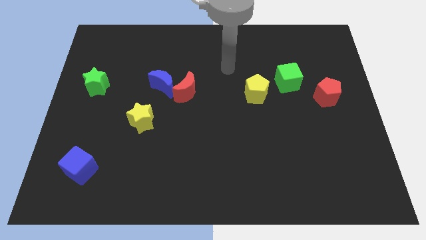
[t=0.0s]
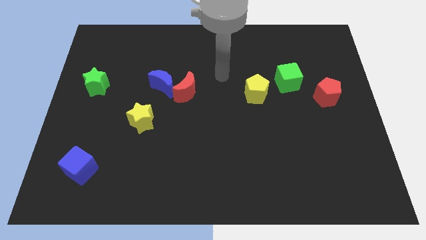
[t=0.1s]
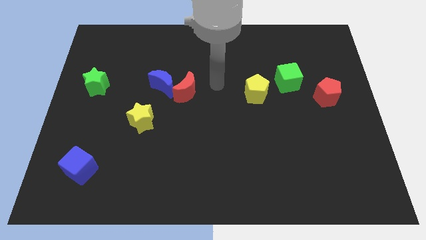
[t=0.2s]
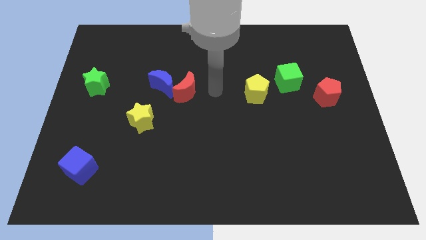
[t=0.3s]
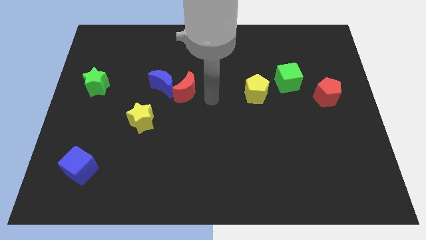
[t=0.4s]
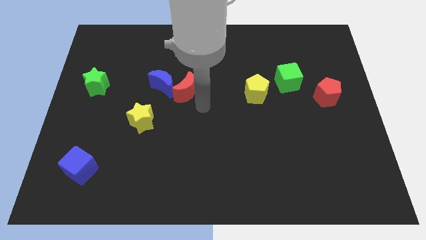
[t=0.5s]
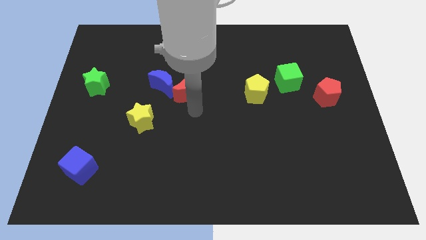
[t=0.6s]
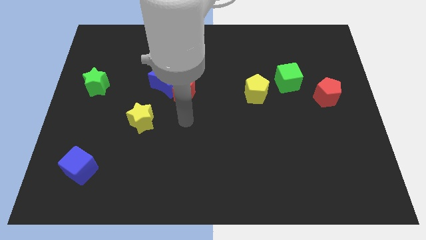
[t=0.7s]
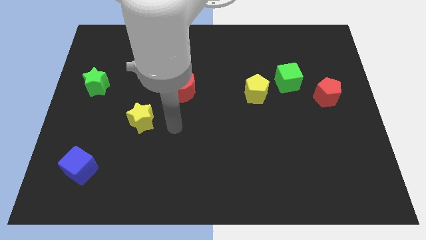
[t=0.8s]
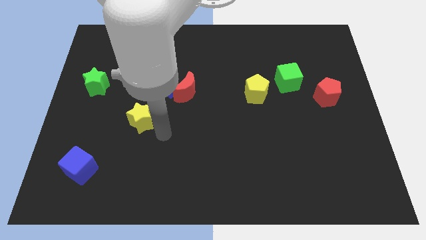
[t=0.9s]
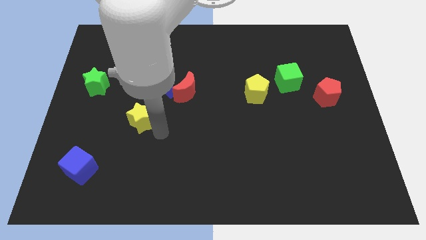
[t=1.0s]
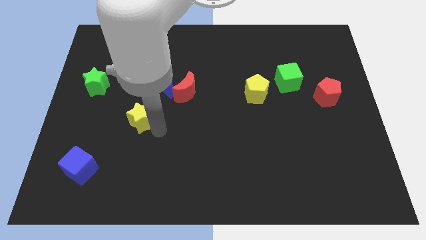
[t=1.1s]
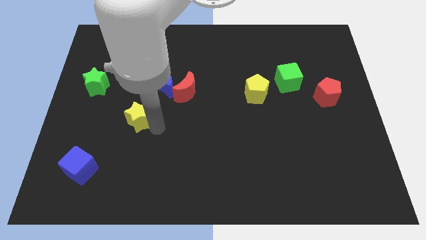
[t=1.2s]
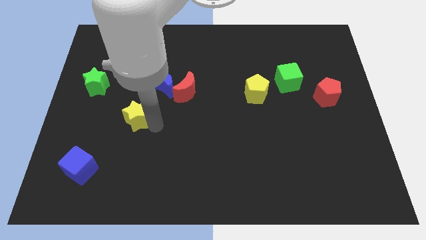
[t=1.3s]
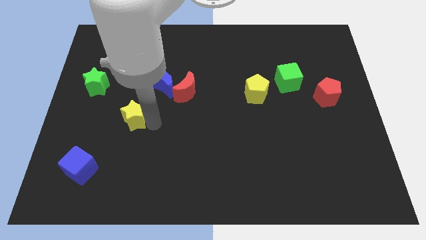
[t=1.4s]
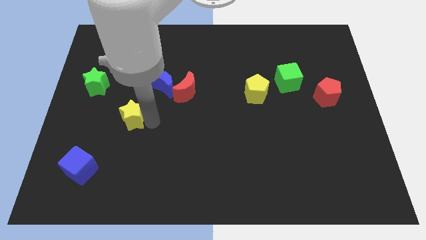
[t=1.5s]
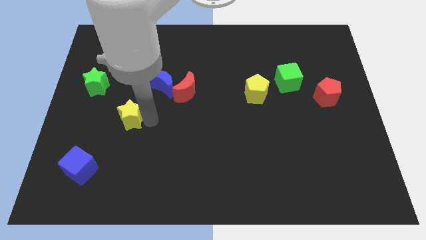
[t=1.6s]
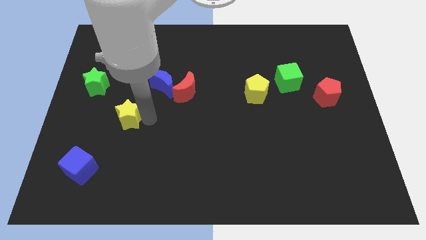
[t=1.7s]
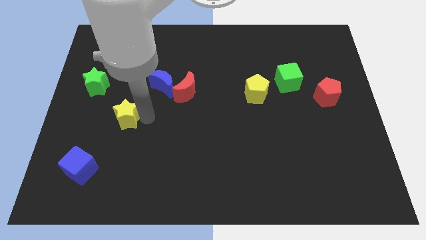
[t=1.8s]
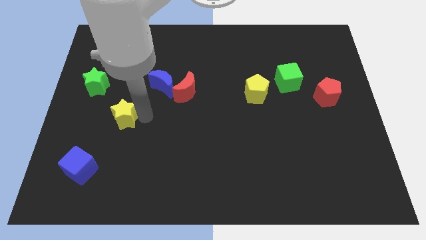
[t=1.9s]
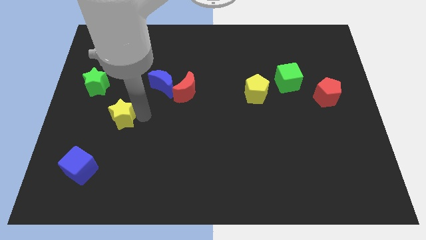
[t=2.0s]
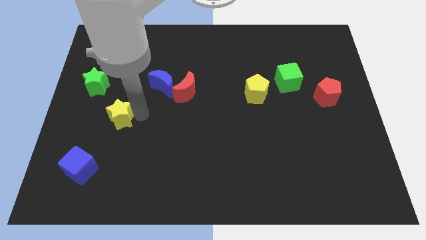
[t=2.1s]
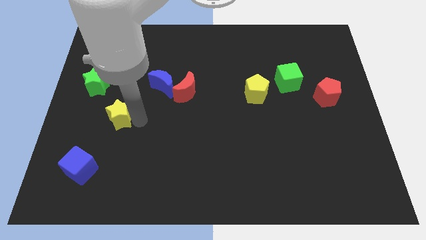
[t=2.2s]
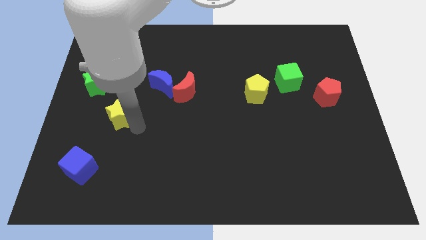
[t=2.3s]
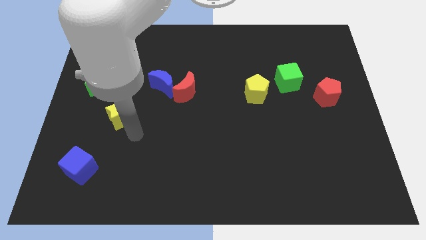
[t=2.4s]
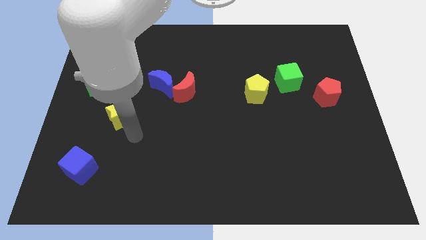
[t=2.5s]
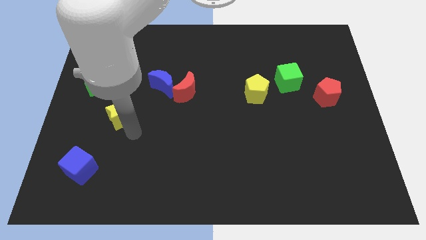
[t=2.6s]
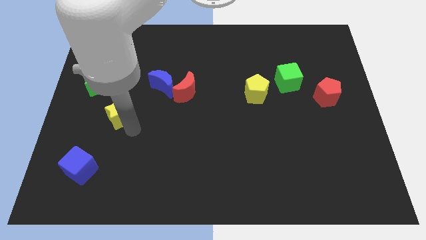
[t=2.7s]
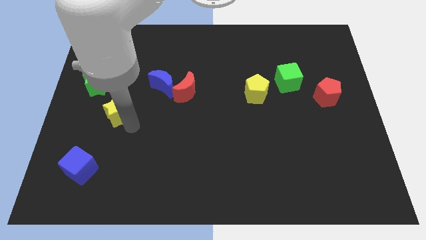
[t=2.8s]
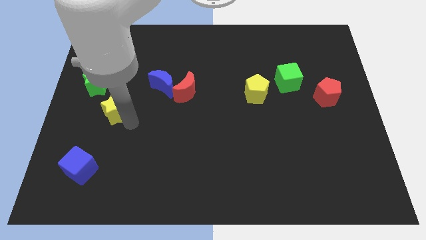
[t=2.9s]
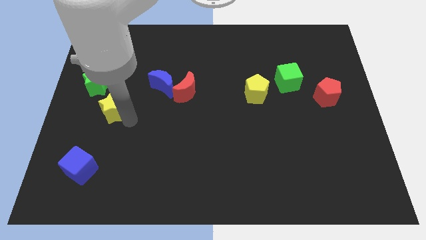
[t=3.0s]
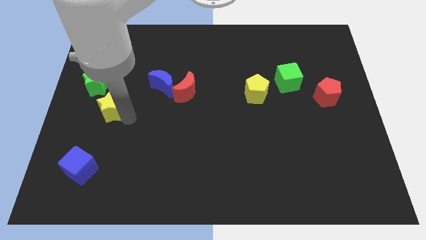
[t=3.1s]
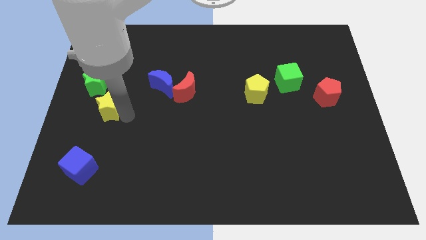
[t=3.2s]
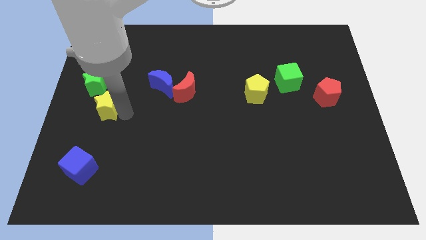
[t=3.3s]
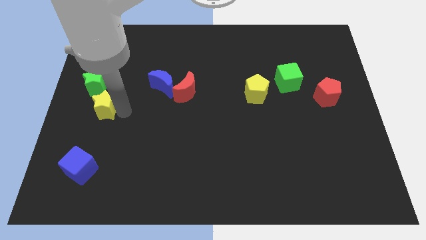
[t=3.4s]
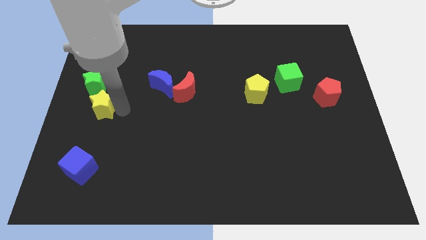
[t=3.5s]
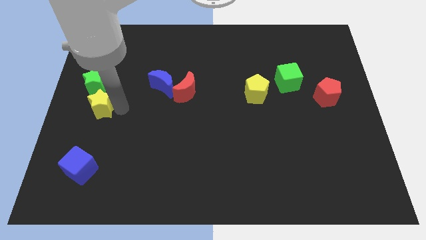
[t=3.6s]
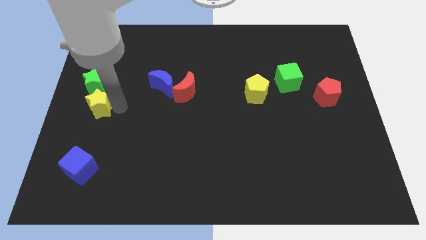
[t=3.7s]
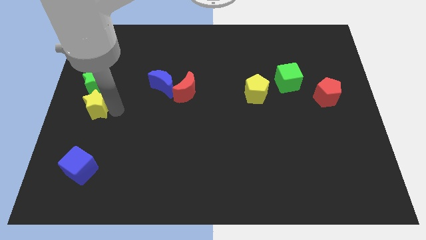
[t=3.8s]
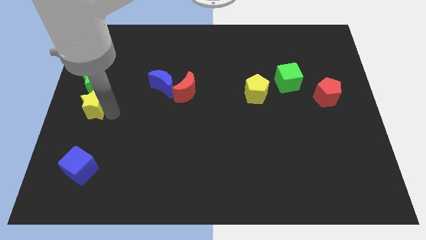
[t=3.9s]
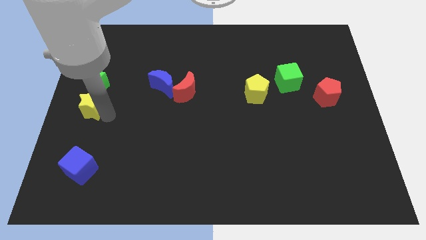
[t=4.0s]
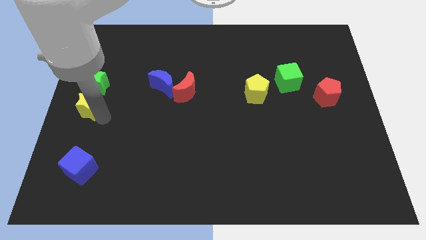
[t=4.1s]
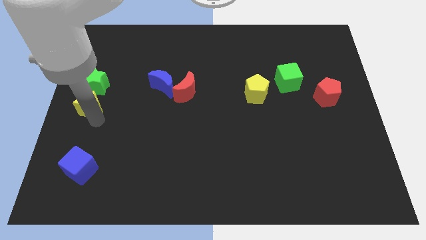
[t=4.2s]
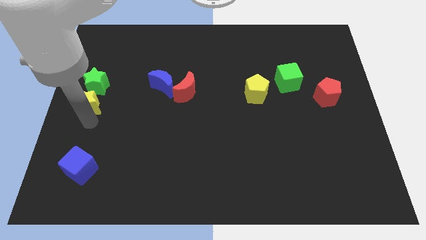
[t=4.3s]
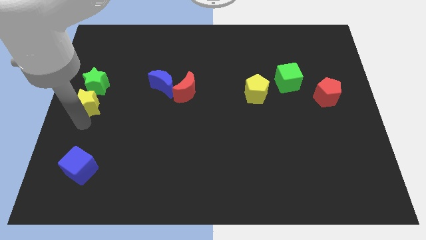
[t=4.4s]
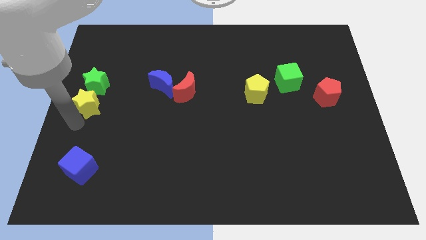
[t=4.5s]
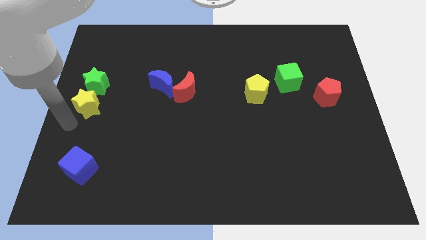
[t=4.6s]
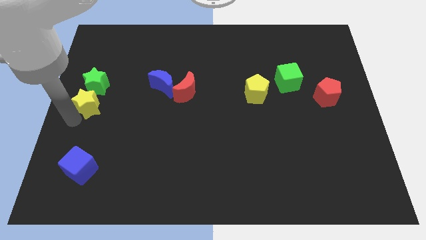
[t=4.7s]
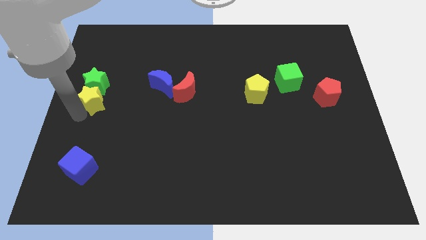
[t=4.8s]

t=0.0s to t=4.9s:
move the yellow star towards the green star

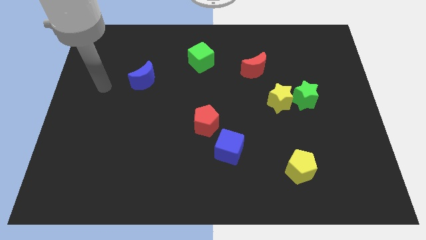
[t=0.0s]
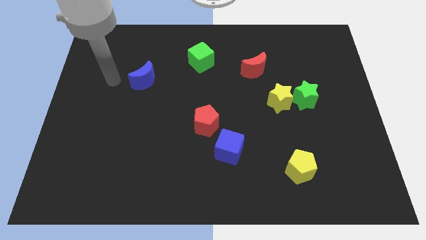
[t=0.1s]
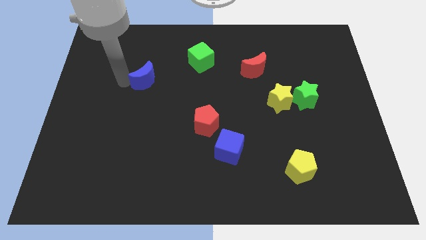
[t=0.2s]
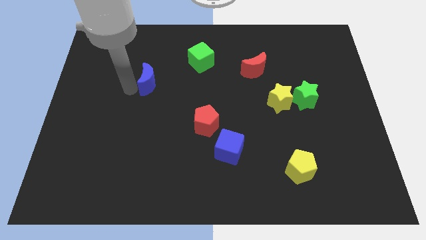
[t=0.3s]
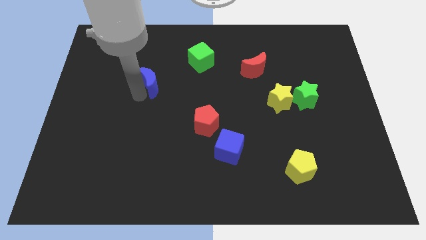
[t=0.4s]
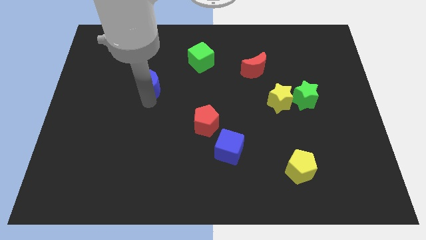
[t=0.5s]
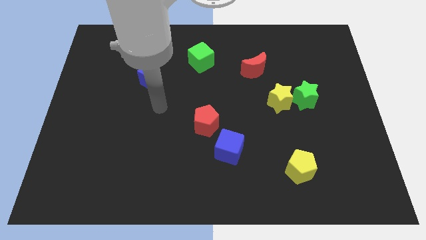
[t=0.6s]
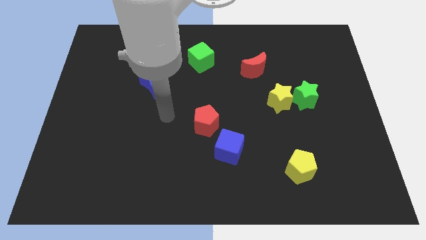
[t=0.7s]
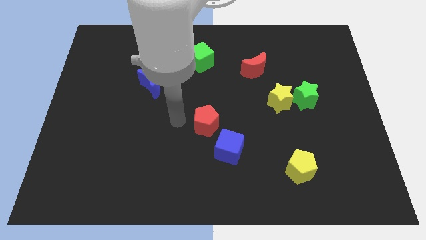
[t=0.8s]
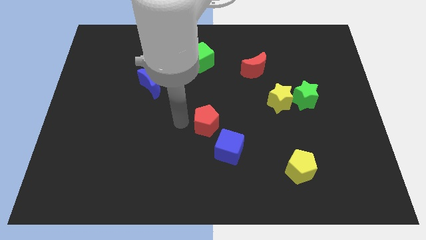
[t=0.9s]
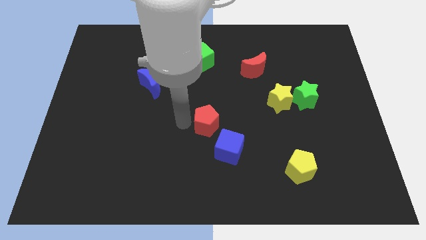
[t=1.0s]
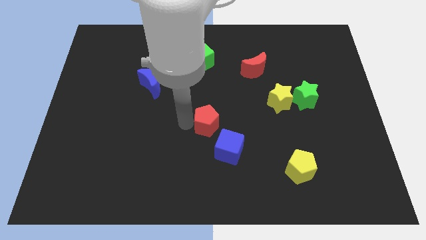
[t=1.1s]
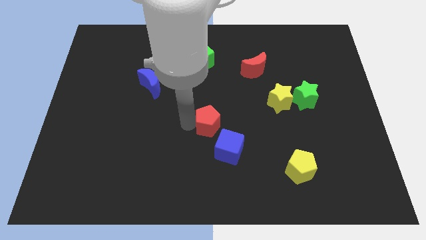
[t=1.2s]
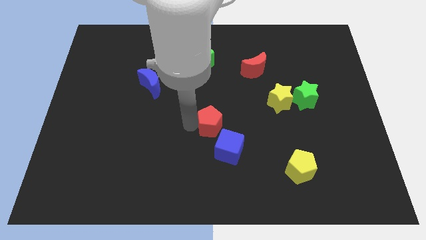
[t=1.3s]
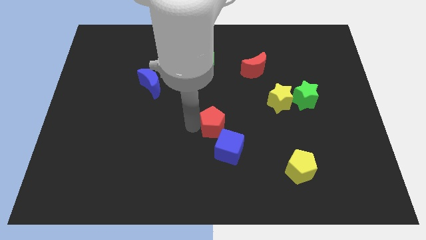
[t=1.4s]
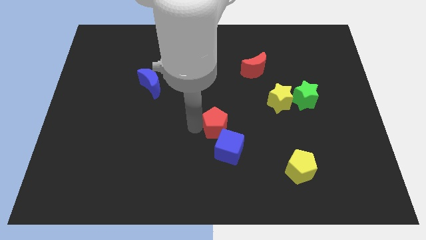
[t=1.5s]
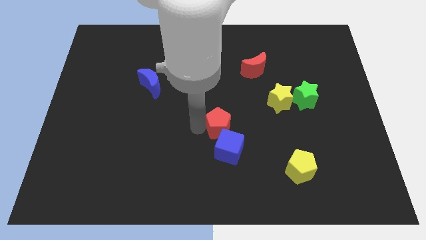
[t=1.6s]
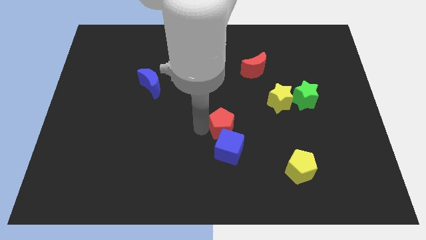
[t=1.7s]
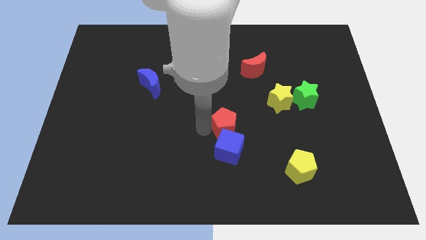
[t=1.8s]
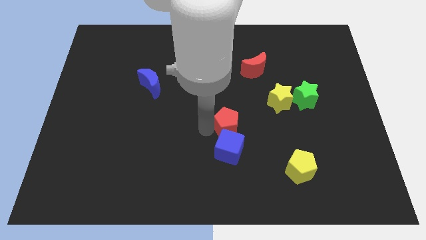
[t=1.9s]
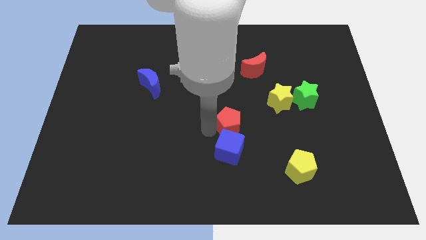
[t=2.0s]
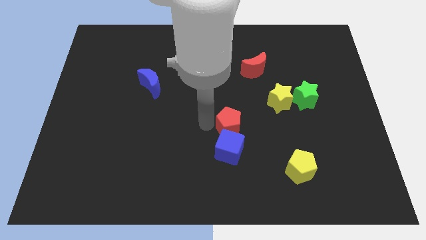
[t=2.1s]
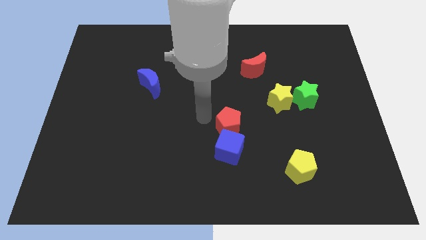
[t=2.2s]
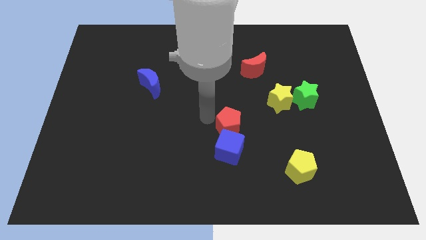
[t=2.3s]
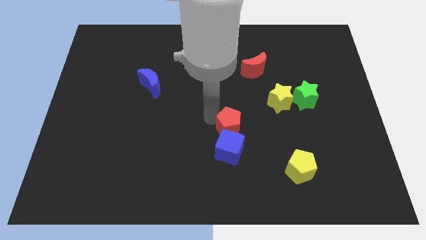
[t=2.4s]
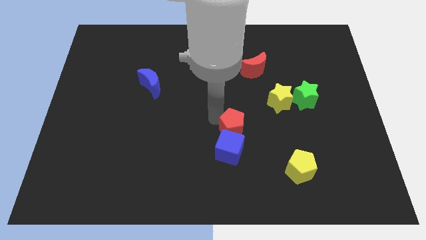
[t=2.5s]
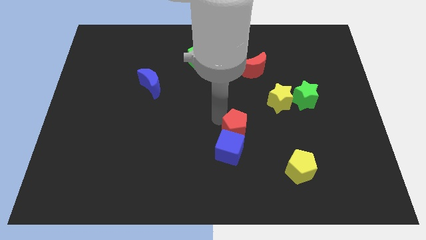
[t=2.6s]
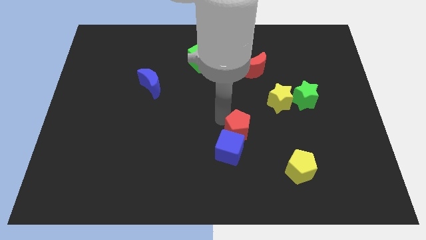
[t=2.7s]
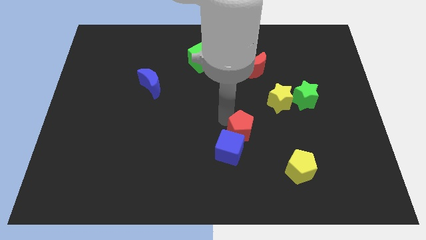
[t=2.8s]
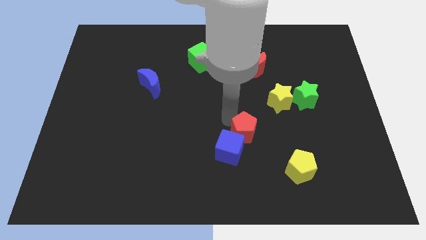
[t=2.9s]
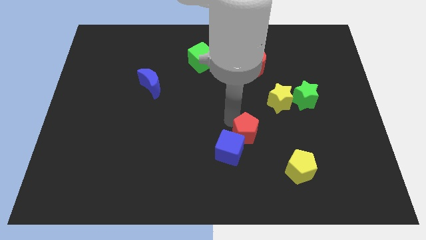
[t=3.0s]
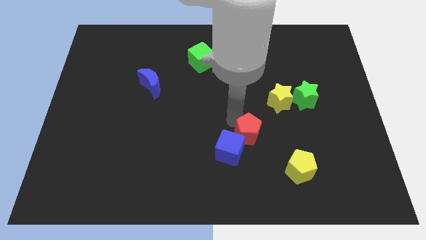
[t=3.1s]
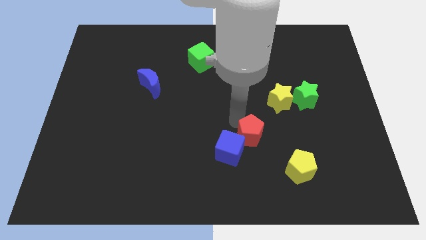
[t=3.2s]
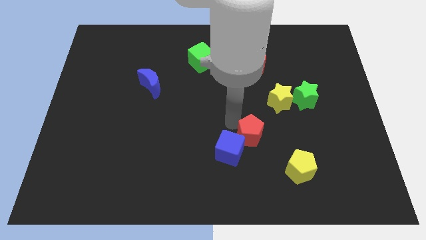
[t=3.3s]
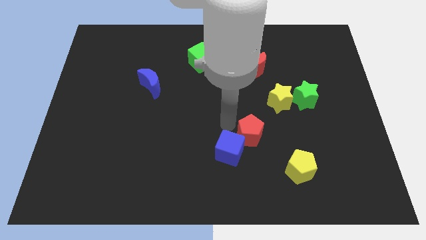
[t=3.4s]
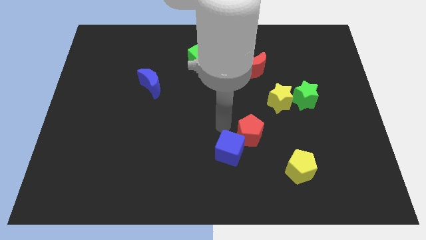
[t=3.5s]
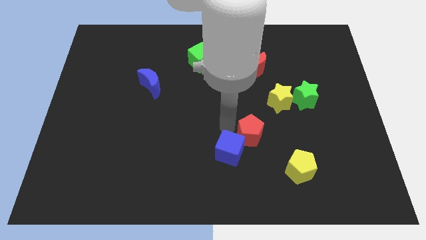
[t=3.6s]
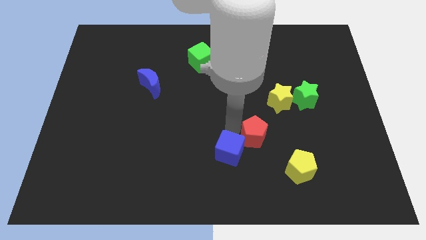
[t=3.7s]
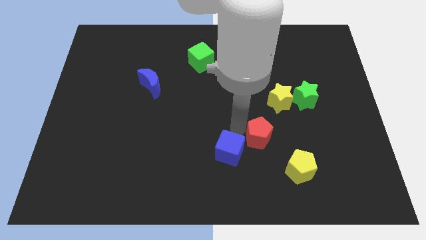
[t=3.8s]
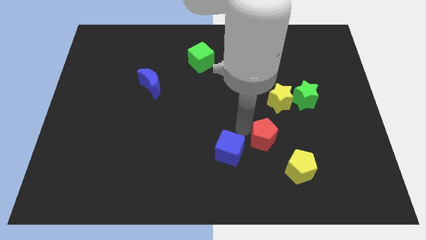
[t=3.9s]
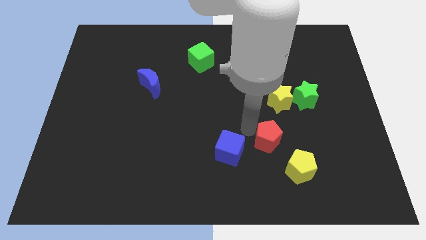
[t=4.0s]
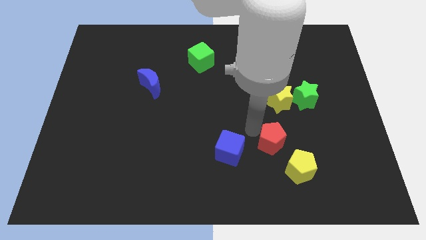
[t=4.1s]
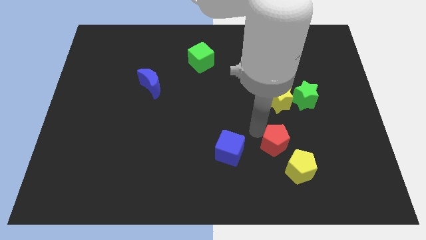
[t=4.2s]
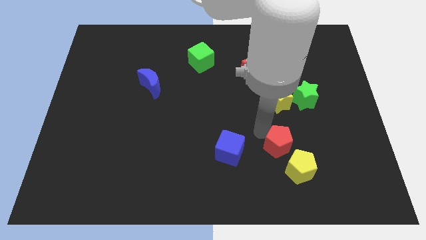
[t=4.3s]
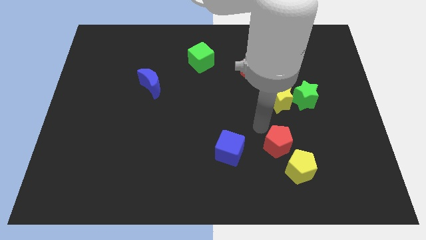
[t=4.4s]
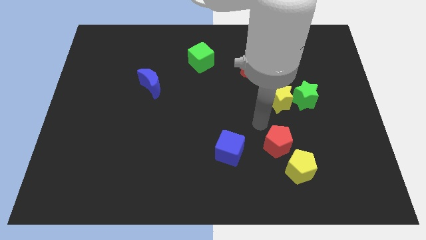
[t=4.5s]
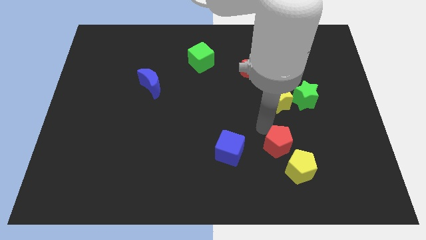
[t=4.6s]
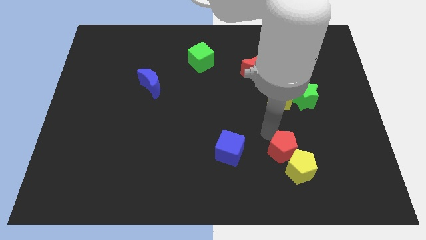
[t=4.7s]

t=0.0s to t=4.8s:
put the red pentagon next to the yellow pentagon
